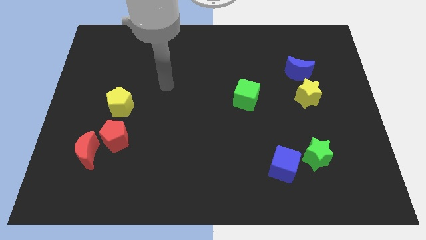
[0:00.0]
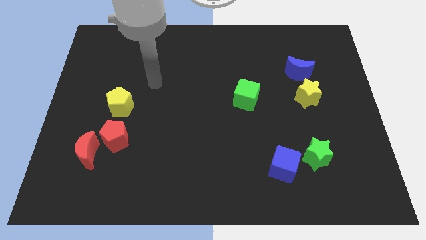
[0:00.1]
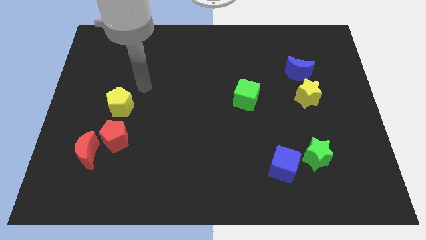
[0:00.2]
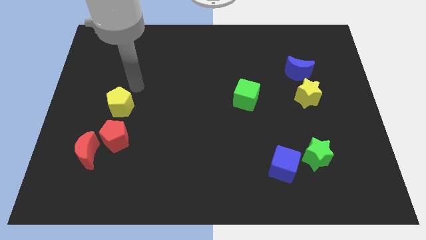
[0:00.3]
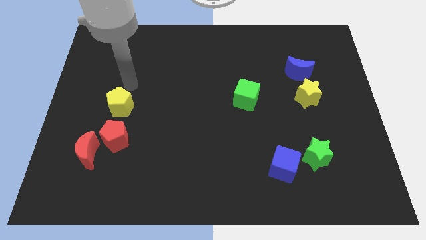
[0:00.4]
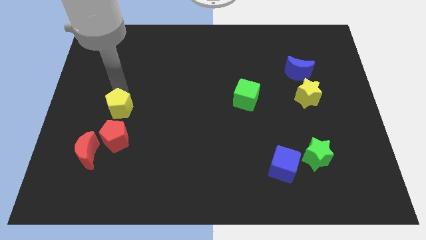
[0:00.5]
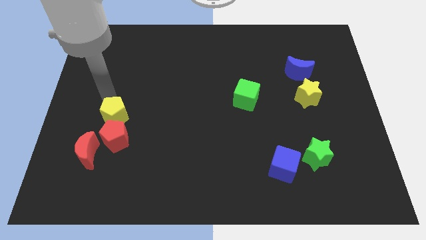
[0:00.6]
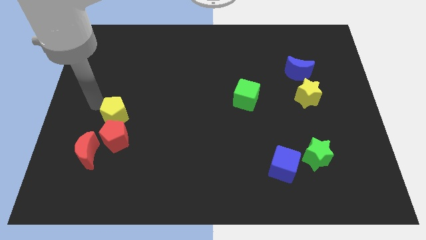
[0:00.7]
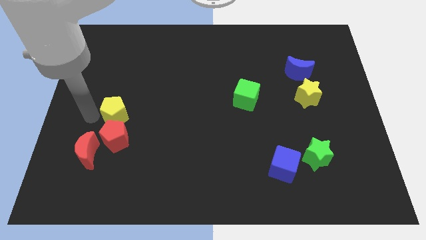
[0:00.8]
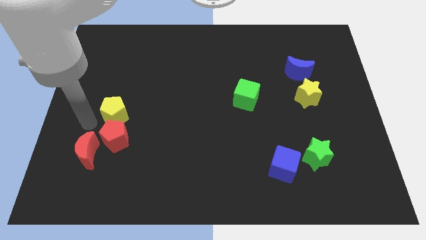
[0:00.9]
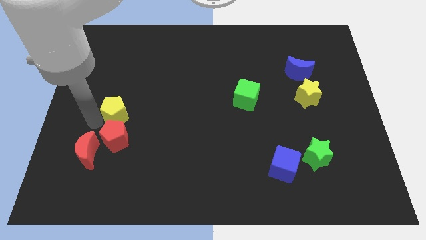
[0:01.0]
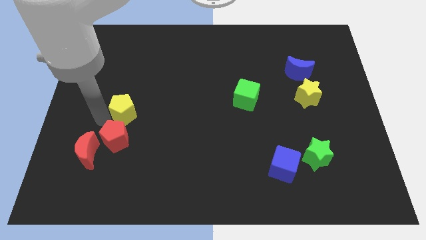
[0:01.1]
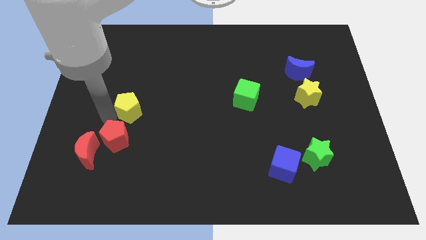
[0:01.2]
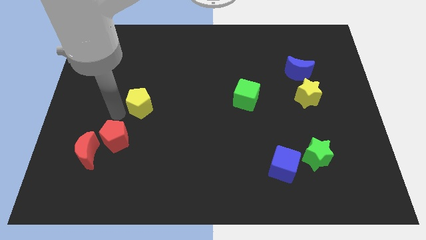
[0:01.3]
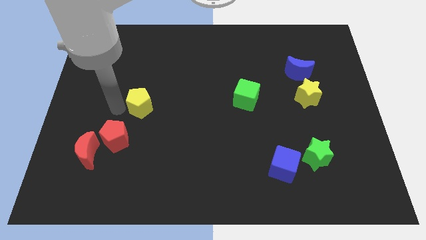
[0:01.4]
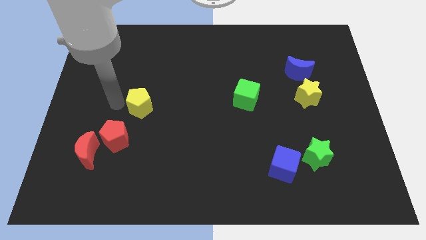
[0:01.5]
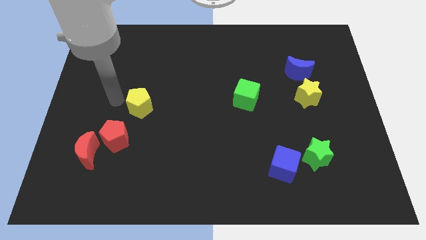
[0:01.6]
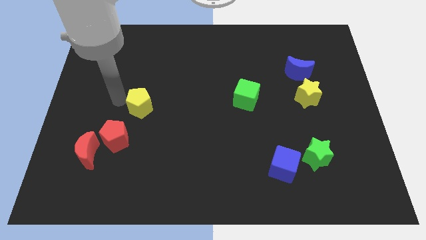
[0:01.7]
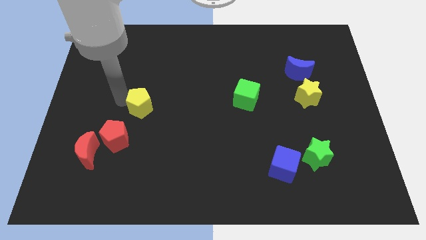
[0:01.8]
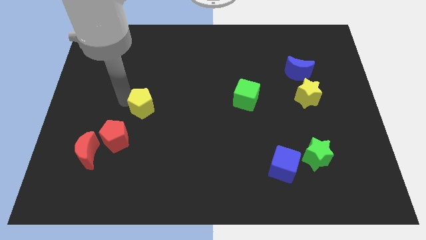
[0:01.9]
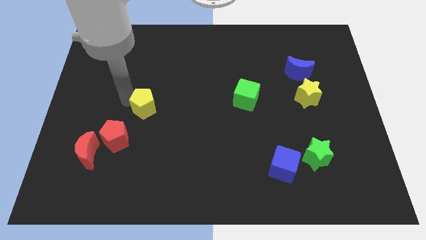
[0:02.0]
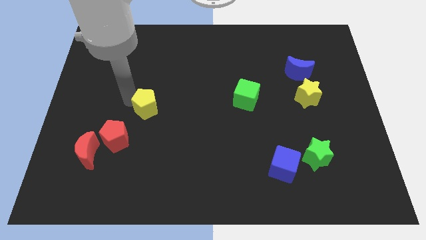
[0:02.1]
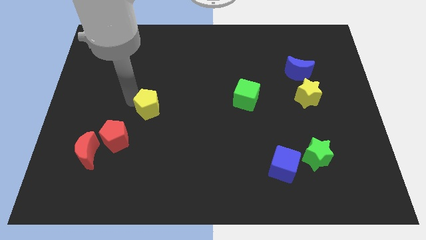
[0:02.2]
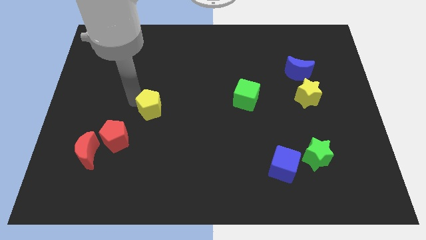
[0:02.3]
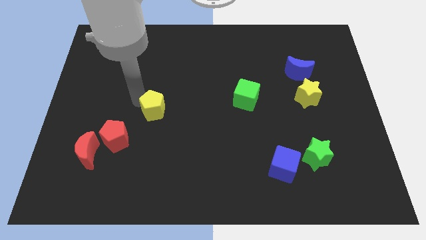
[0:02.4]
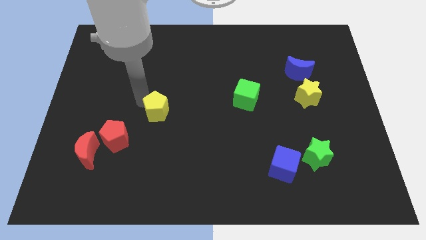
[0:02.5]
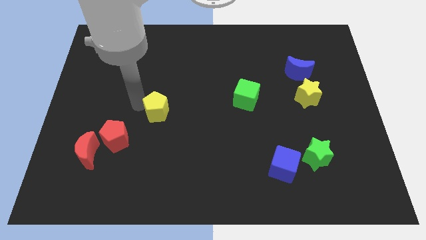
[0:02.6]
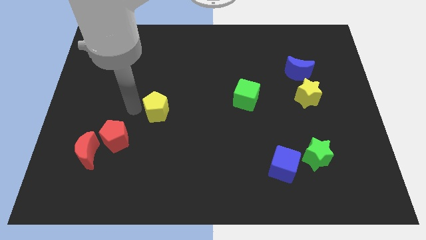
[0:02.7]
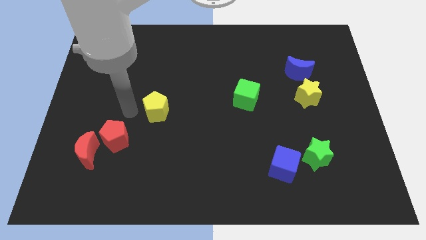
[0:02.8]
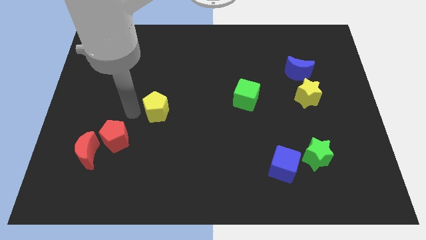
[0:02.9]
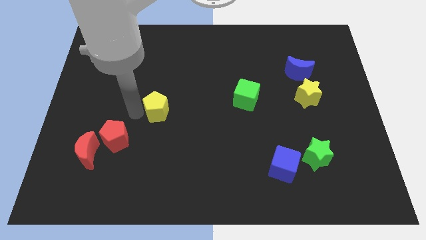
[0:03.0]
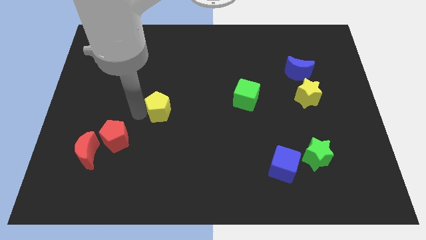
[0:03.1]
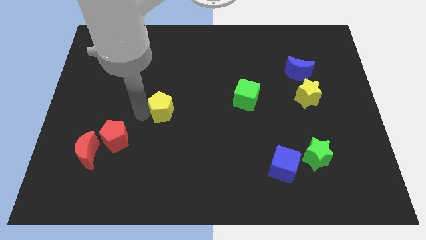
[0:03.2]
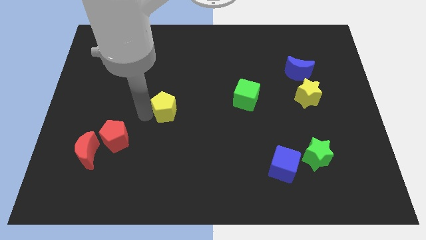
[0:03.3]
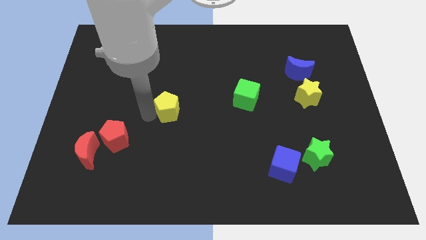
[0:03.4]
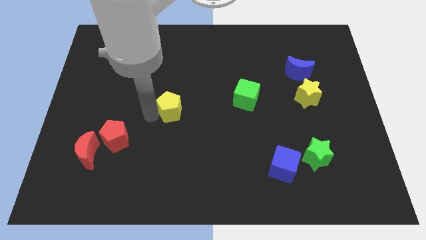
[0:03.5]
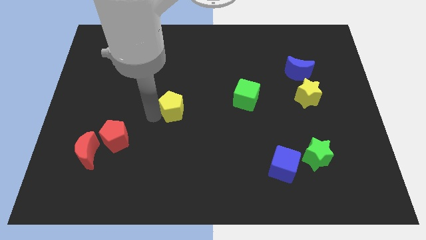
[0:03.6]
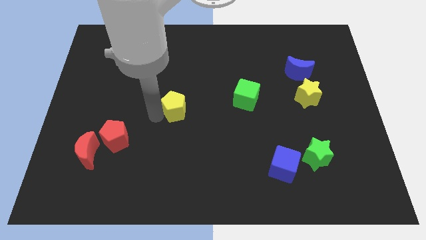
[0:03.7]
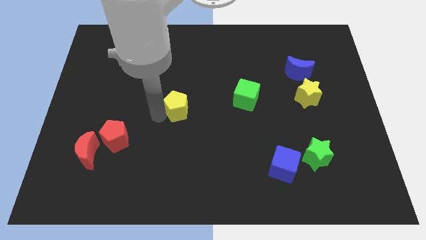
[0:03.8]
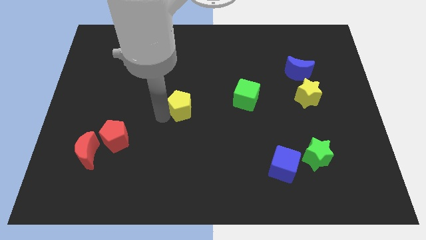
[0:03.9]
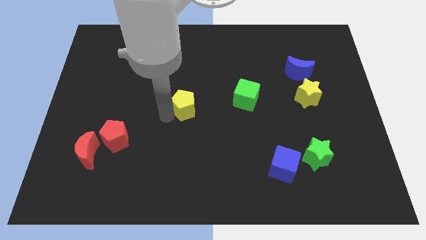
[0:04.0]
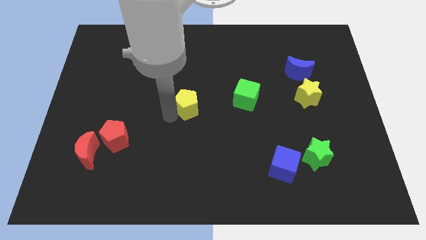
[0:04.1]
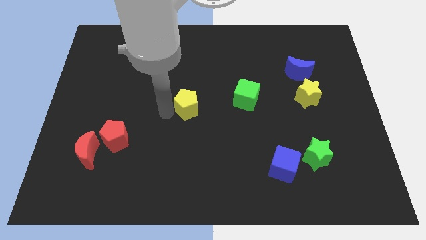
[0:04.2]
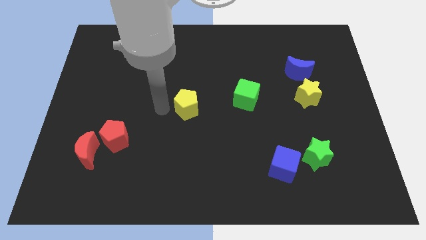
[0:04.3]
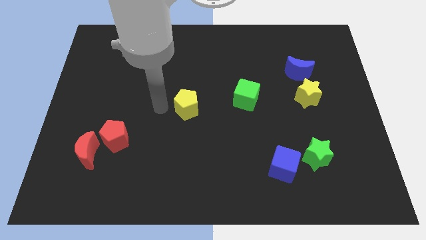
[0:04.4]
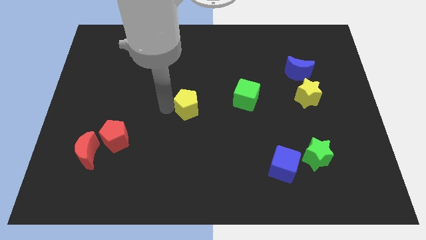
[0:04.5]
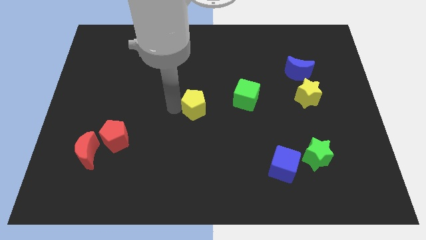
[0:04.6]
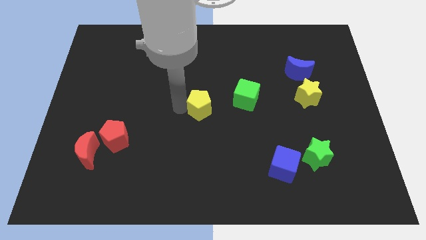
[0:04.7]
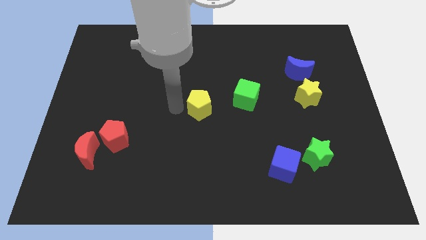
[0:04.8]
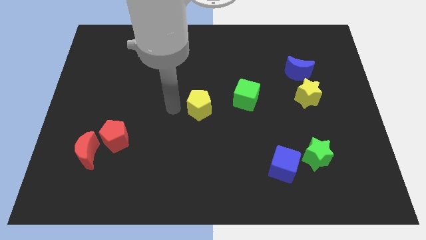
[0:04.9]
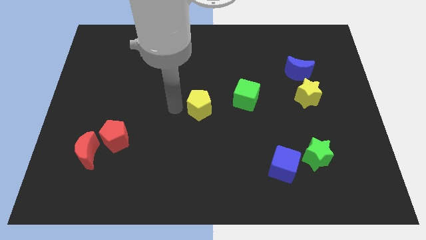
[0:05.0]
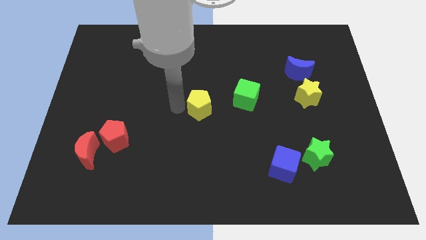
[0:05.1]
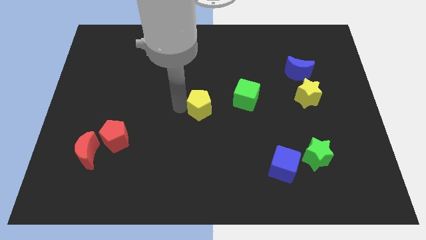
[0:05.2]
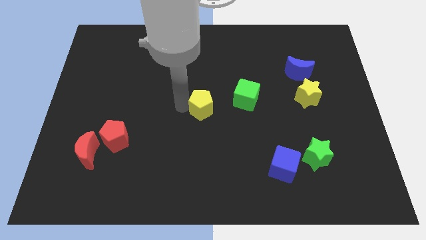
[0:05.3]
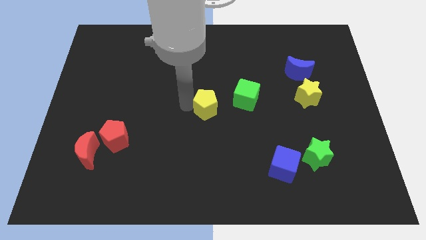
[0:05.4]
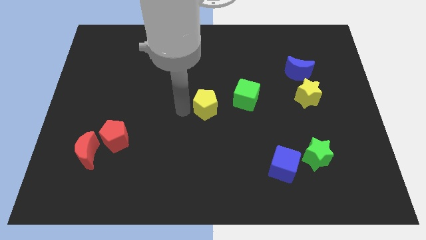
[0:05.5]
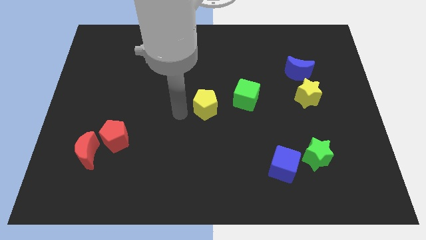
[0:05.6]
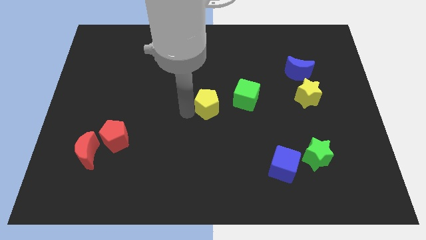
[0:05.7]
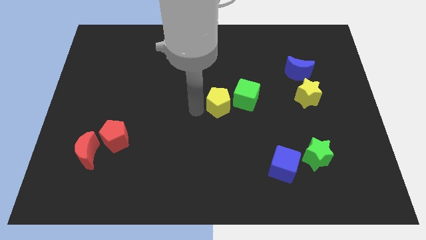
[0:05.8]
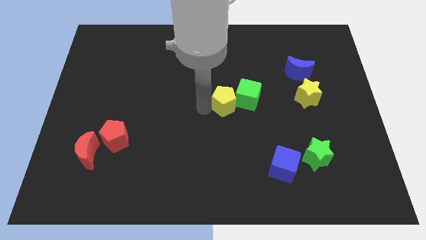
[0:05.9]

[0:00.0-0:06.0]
push the yellow pentagon towards the green cube

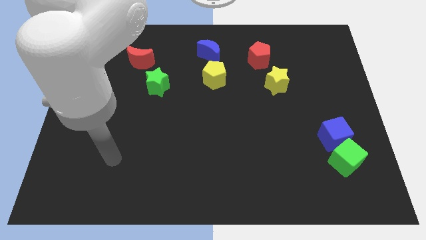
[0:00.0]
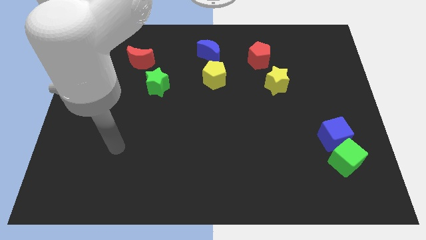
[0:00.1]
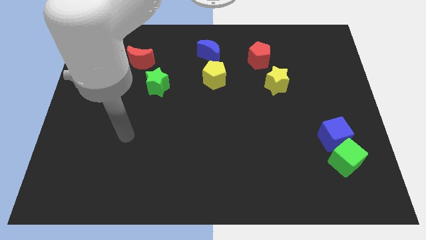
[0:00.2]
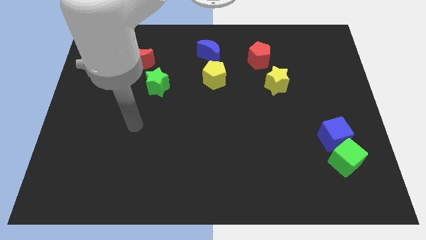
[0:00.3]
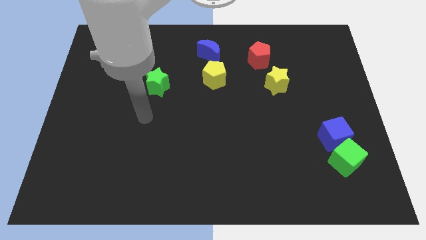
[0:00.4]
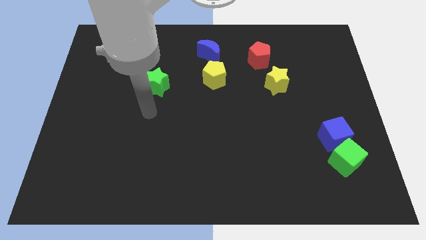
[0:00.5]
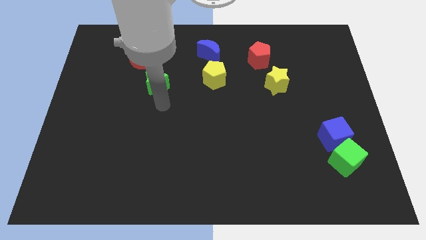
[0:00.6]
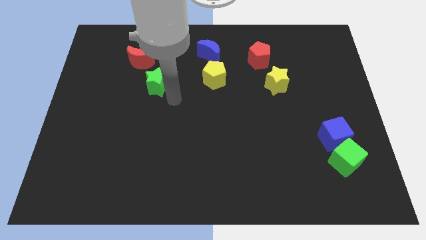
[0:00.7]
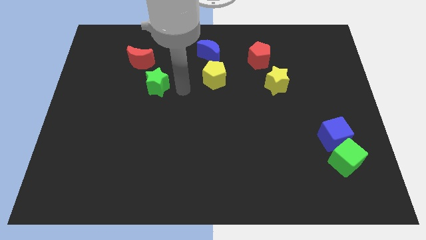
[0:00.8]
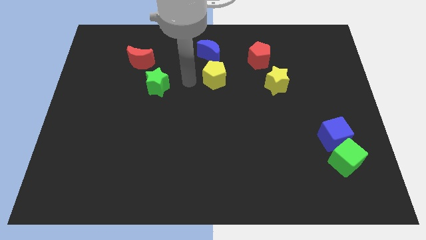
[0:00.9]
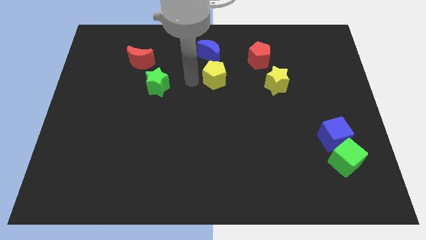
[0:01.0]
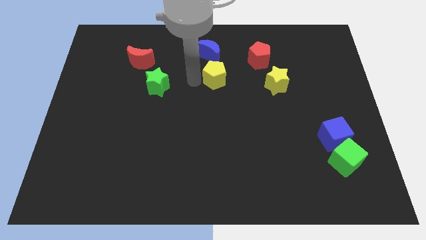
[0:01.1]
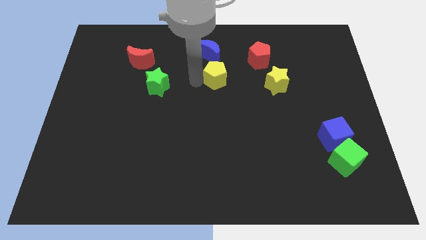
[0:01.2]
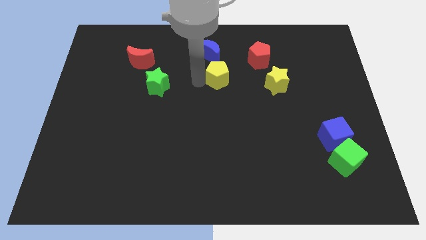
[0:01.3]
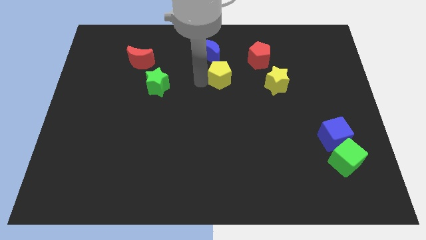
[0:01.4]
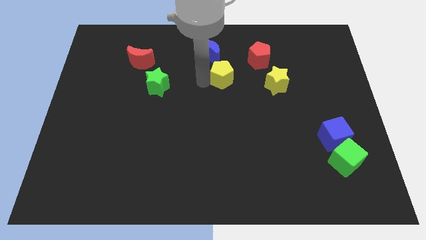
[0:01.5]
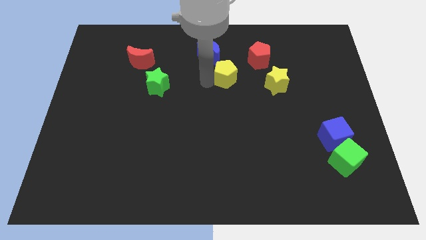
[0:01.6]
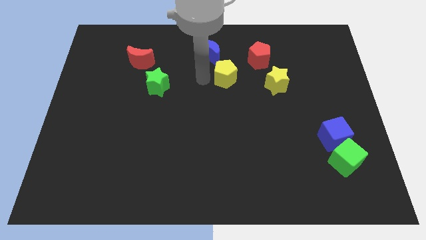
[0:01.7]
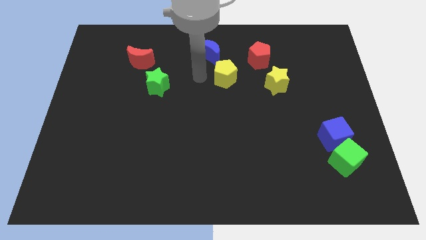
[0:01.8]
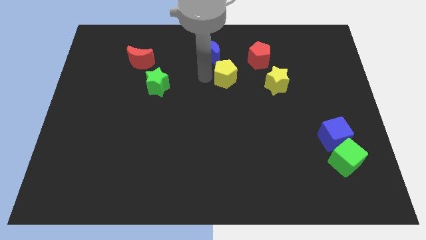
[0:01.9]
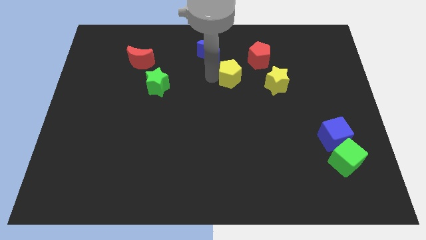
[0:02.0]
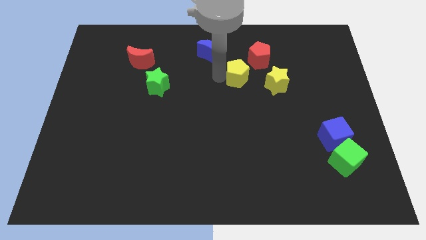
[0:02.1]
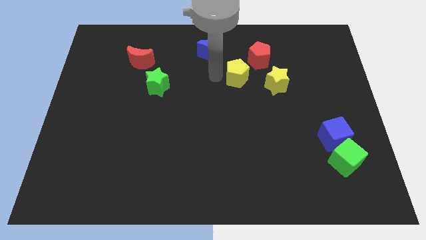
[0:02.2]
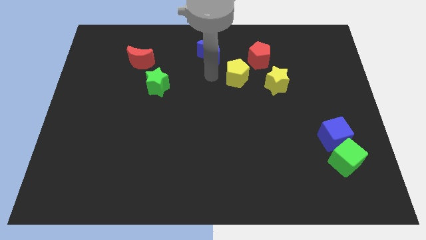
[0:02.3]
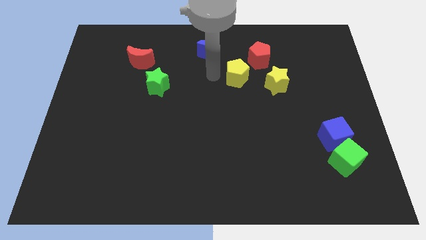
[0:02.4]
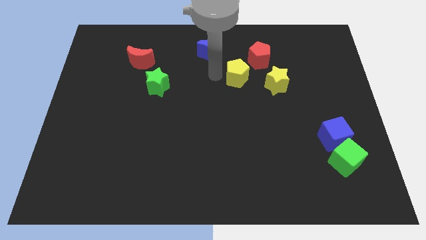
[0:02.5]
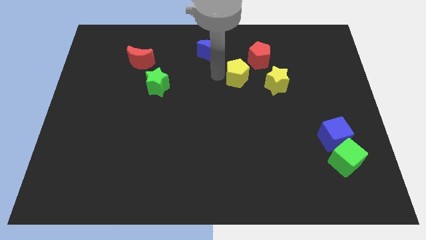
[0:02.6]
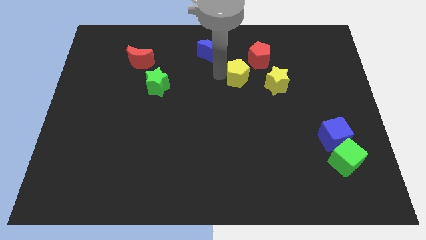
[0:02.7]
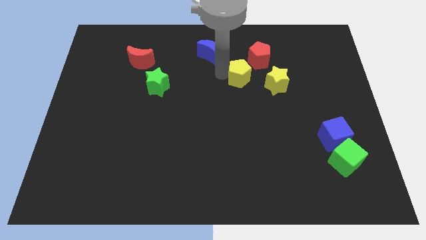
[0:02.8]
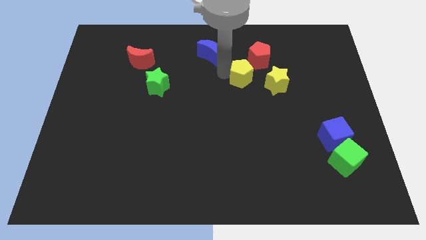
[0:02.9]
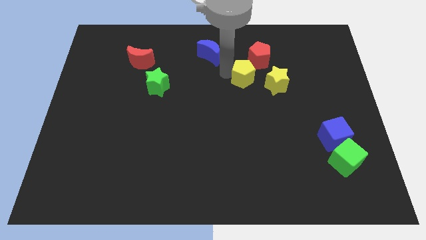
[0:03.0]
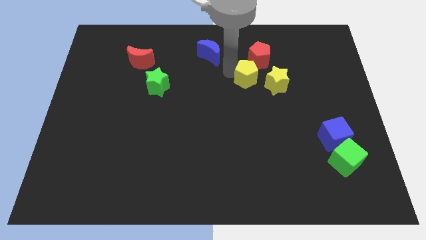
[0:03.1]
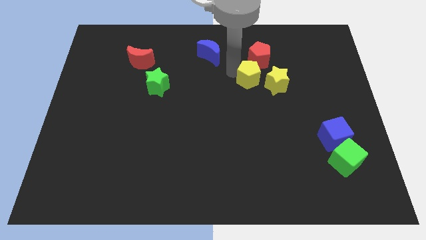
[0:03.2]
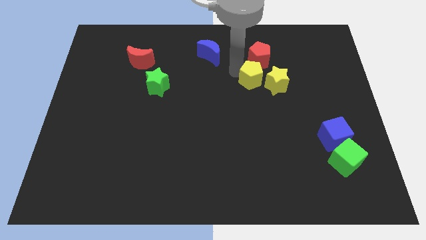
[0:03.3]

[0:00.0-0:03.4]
slide the yellow pentagon to the yellow star
